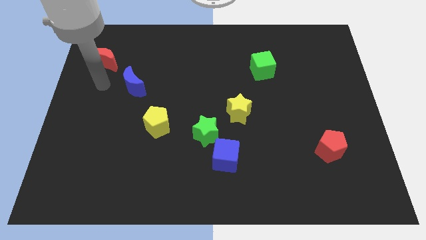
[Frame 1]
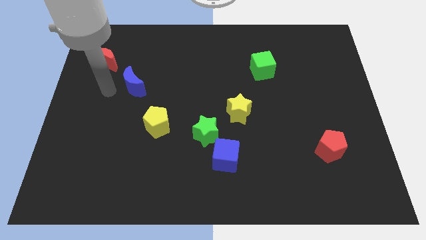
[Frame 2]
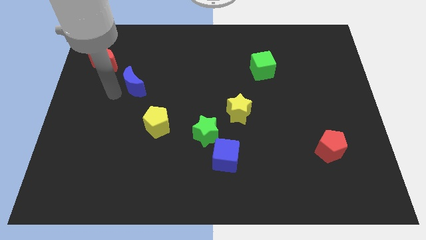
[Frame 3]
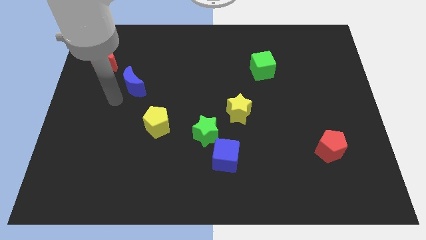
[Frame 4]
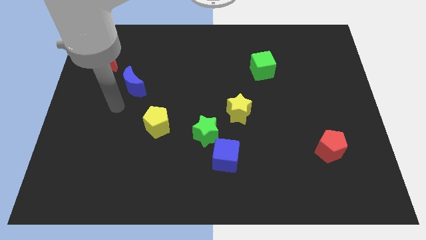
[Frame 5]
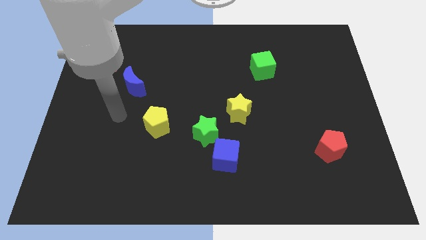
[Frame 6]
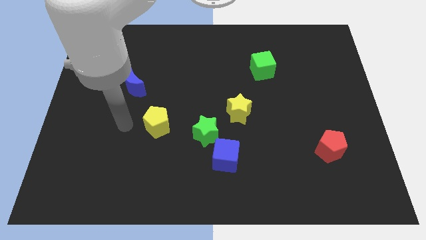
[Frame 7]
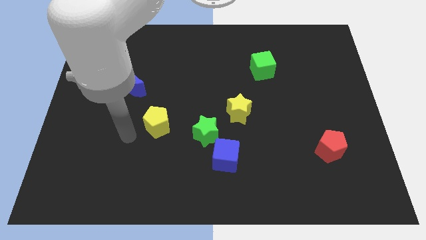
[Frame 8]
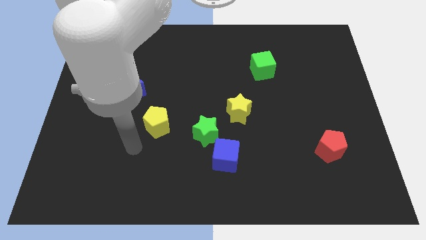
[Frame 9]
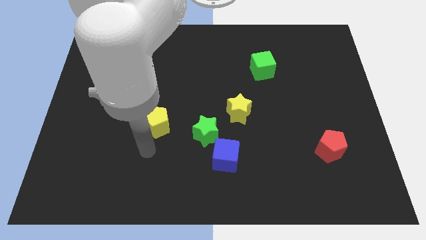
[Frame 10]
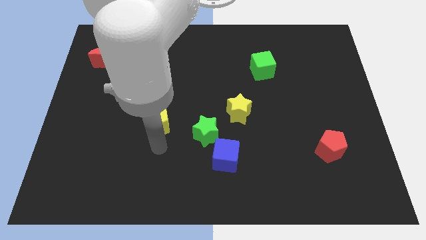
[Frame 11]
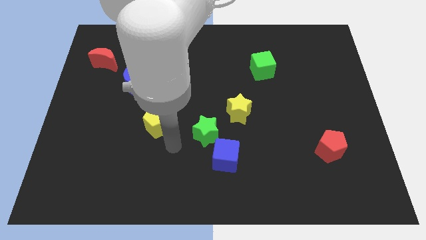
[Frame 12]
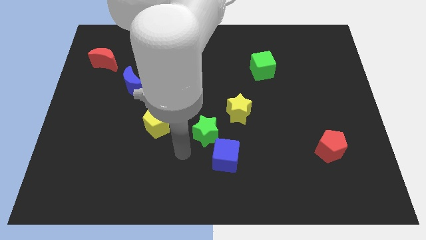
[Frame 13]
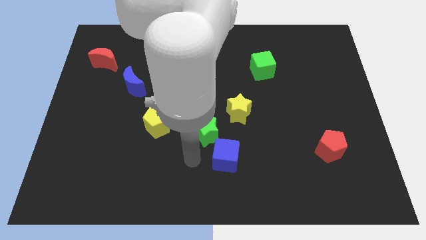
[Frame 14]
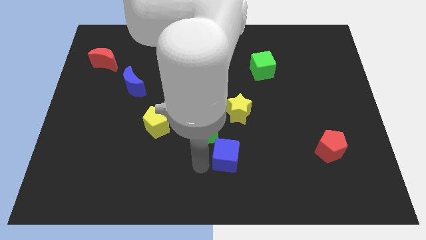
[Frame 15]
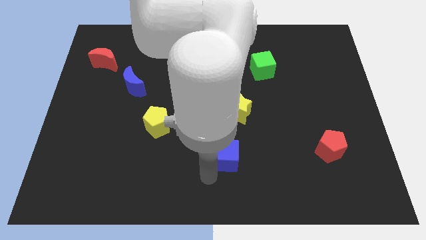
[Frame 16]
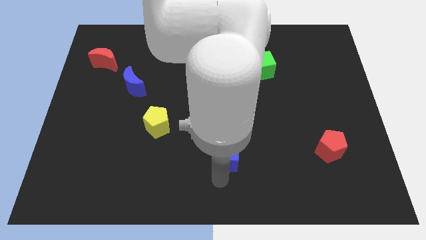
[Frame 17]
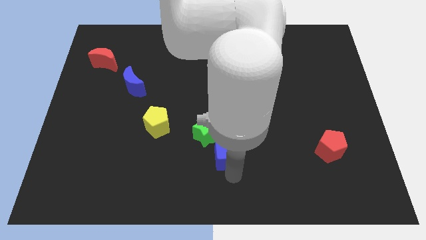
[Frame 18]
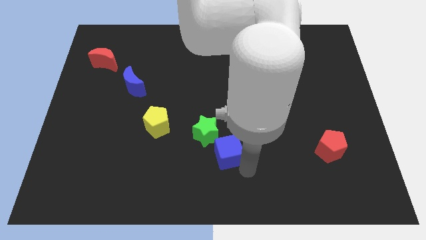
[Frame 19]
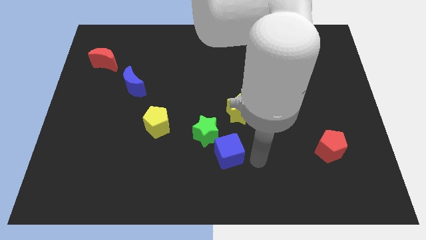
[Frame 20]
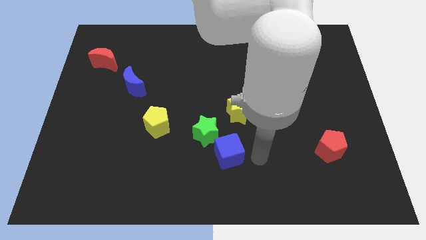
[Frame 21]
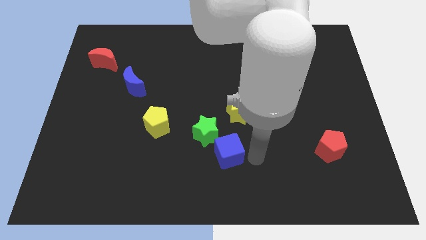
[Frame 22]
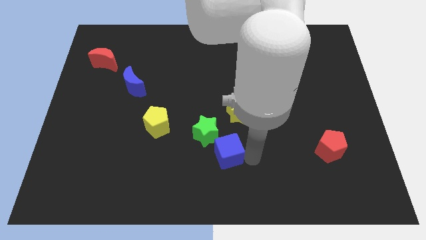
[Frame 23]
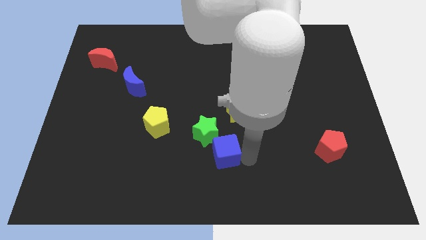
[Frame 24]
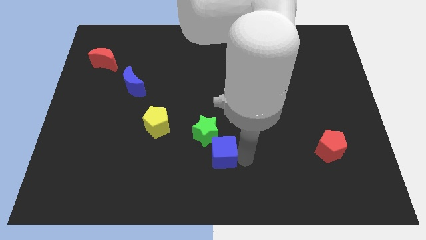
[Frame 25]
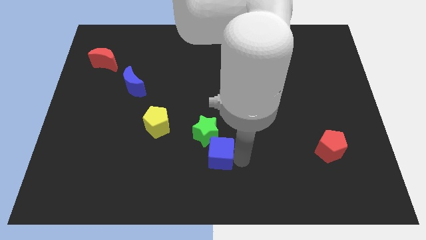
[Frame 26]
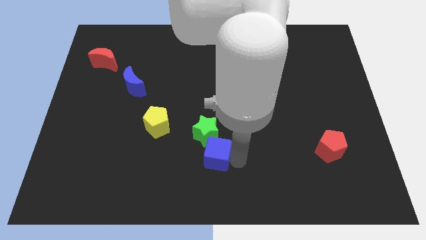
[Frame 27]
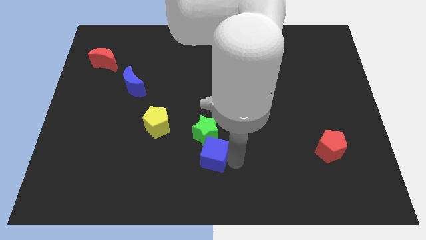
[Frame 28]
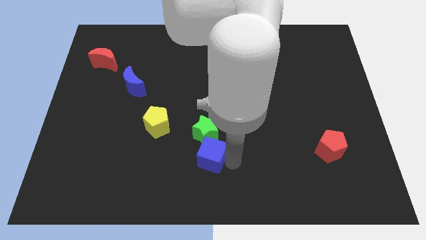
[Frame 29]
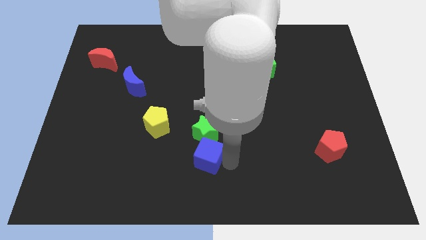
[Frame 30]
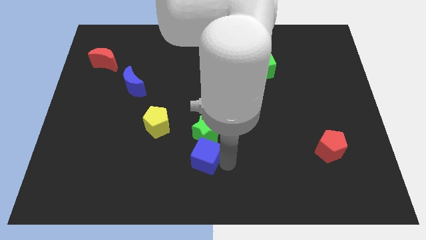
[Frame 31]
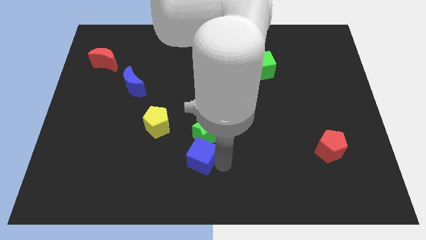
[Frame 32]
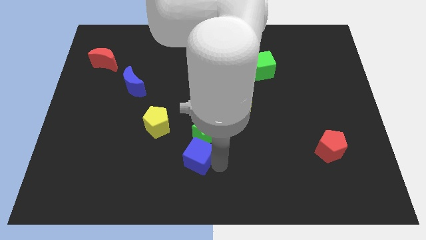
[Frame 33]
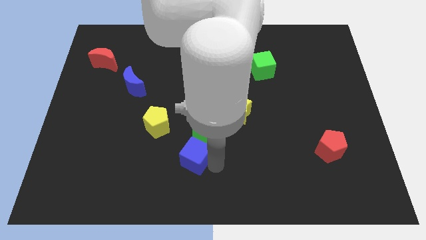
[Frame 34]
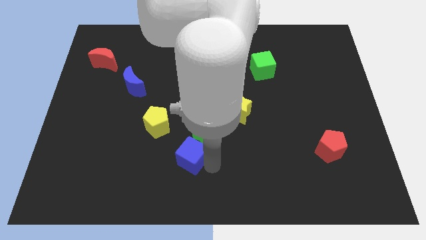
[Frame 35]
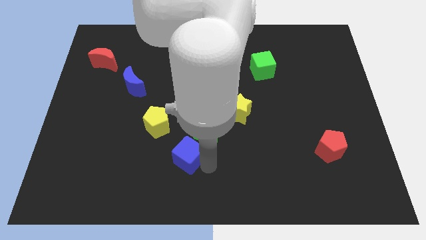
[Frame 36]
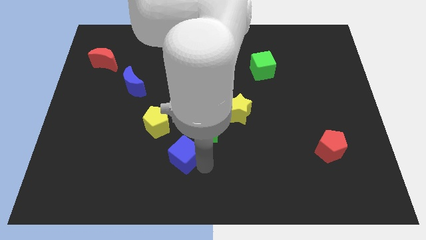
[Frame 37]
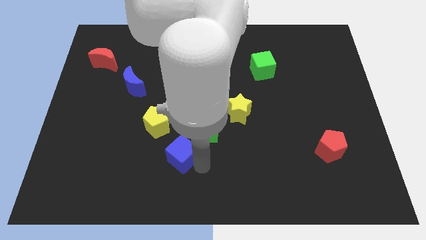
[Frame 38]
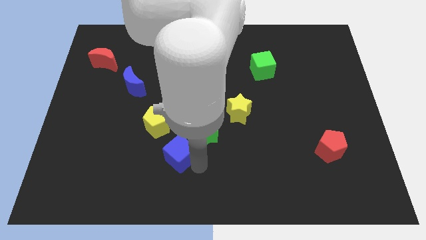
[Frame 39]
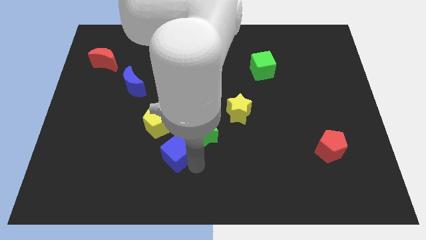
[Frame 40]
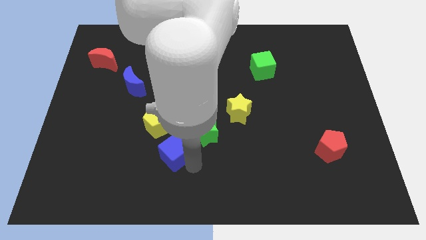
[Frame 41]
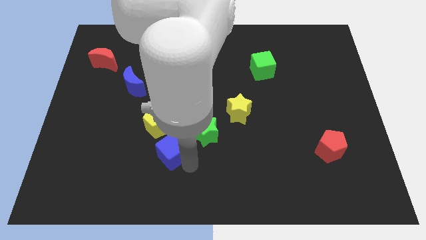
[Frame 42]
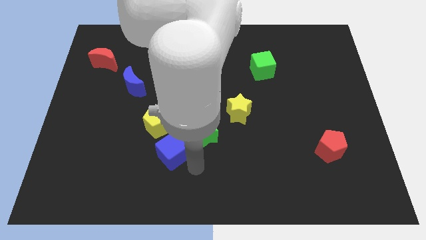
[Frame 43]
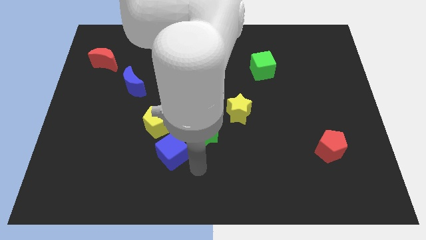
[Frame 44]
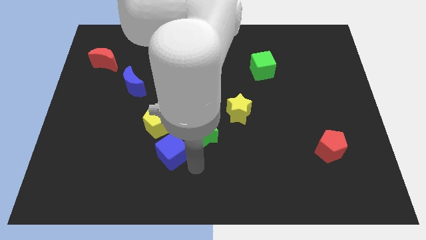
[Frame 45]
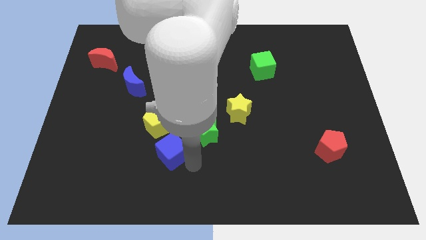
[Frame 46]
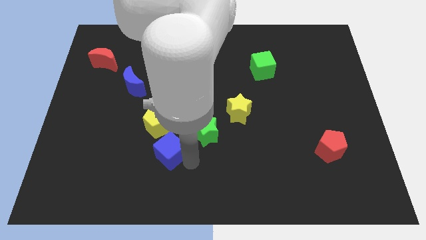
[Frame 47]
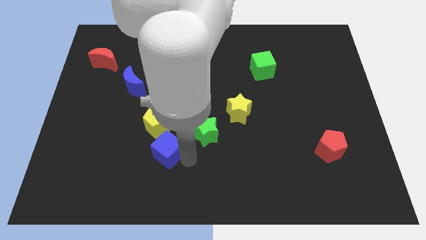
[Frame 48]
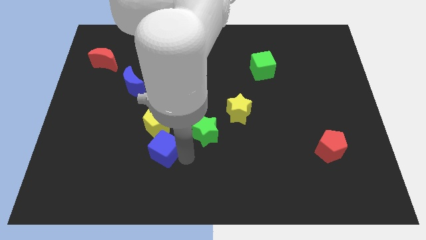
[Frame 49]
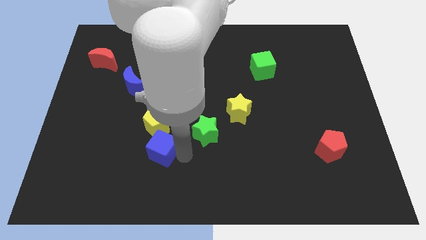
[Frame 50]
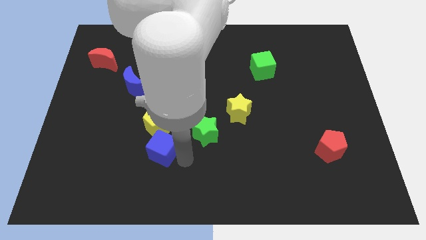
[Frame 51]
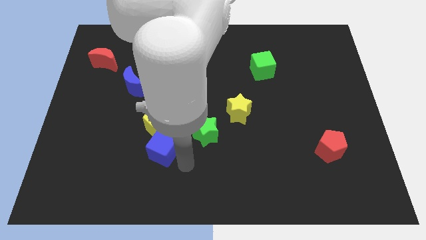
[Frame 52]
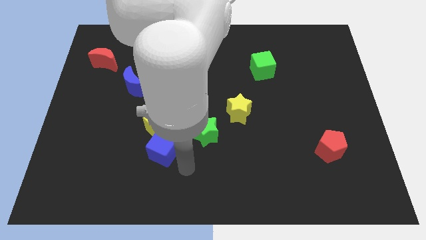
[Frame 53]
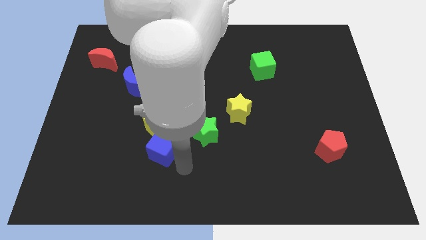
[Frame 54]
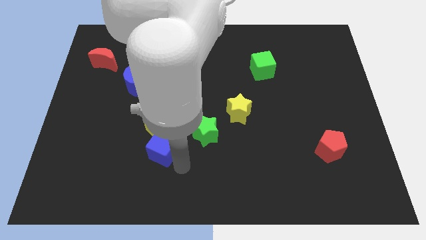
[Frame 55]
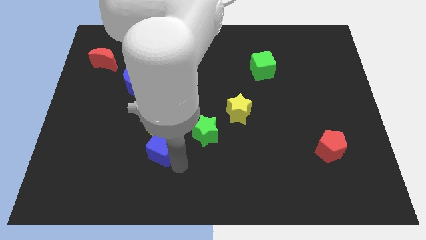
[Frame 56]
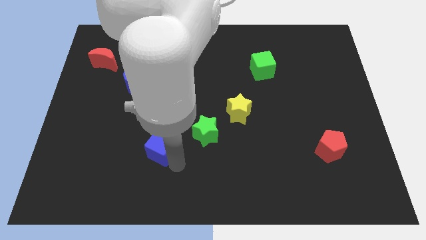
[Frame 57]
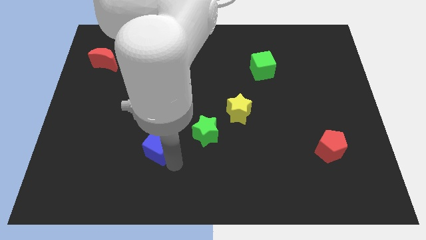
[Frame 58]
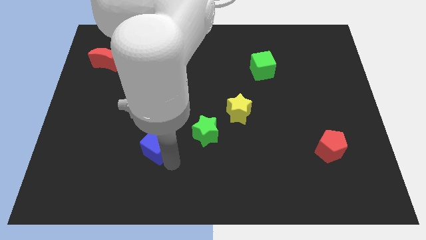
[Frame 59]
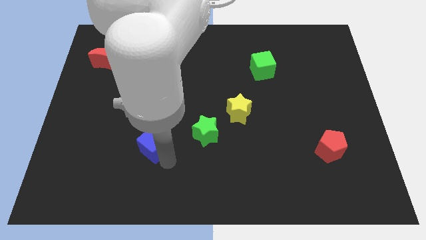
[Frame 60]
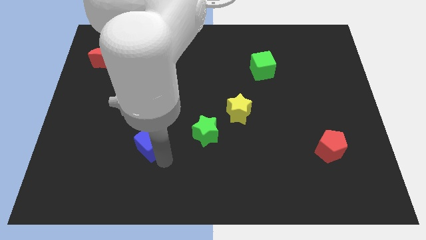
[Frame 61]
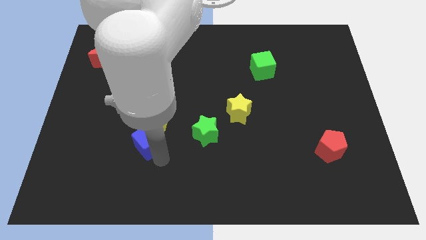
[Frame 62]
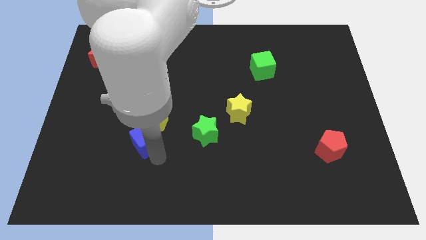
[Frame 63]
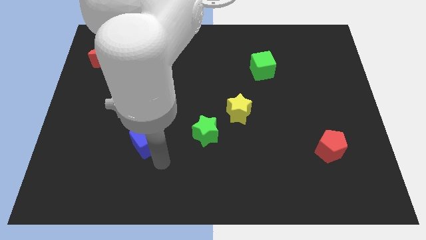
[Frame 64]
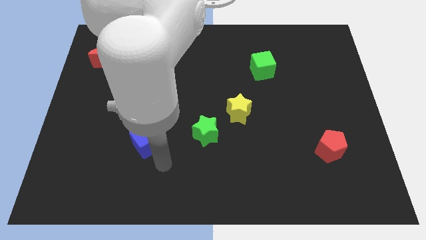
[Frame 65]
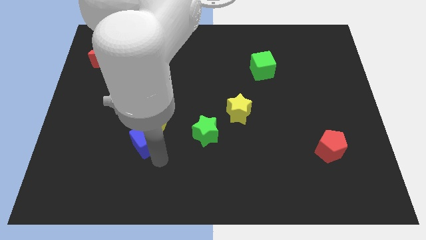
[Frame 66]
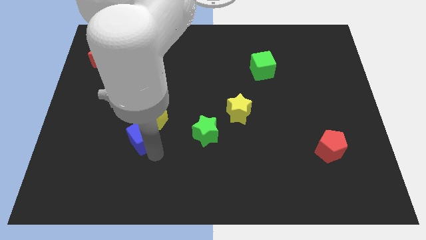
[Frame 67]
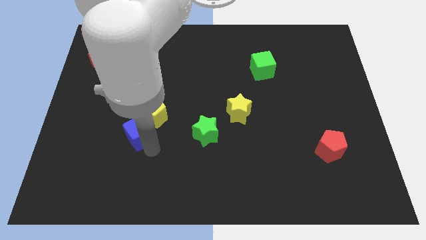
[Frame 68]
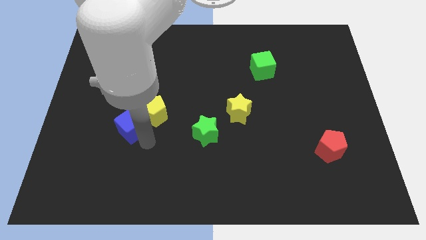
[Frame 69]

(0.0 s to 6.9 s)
put the blue cube to the left of the yellow pentagon

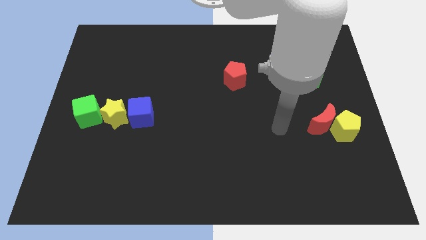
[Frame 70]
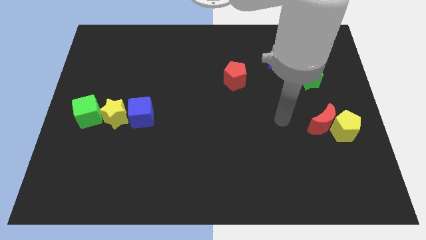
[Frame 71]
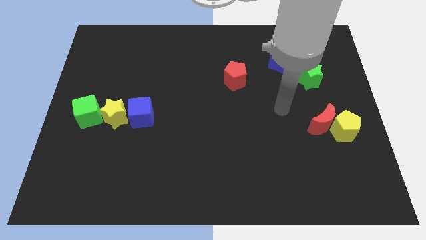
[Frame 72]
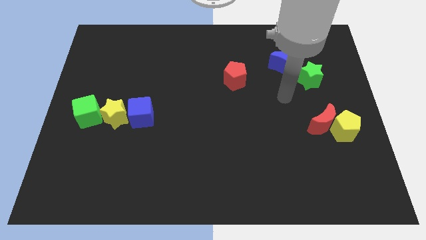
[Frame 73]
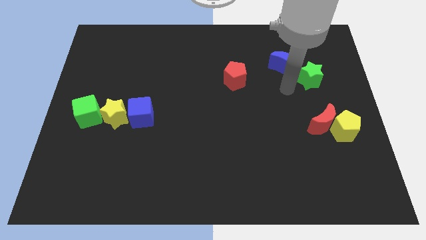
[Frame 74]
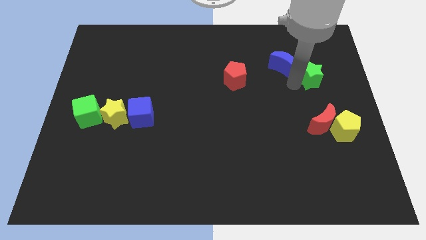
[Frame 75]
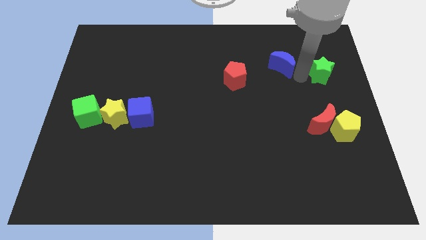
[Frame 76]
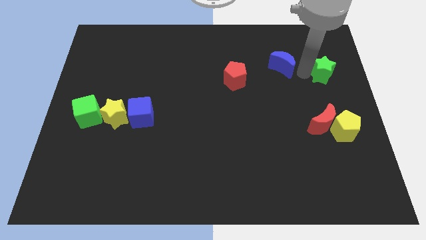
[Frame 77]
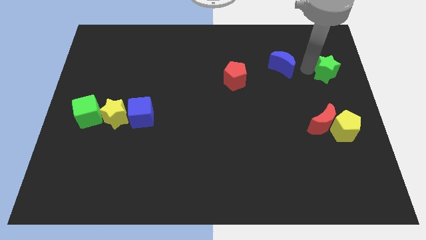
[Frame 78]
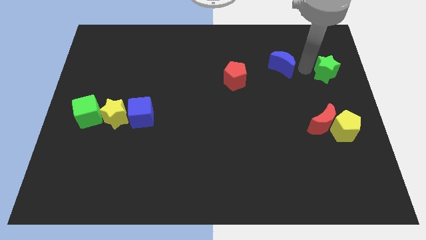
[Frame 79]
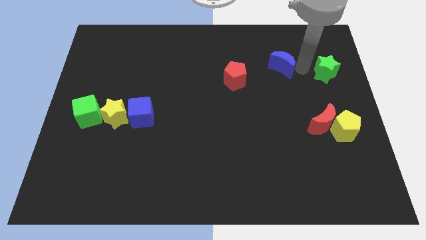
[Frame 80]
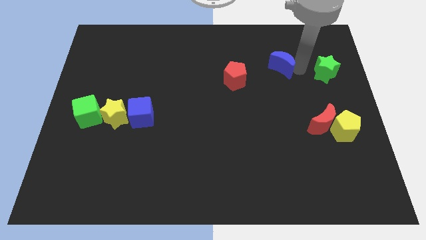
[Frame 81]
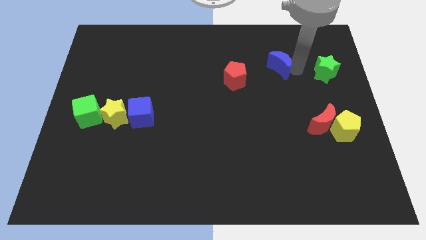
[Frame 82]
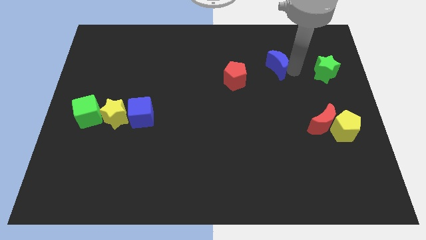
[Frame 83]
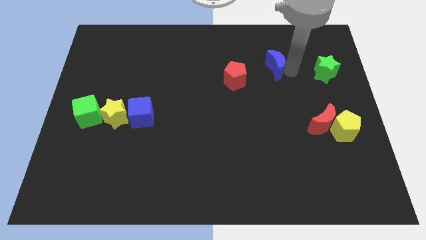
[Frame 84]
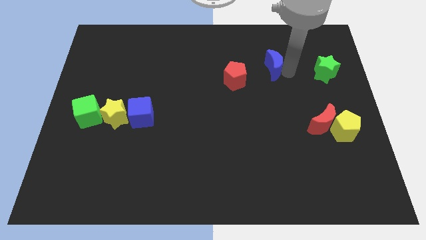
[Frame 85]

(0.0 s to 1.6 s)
push the blue moon to the top right of the red pentagon
